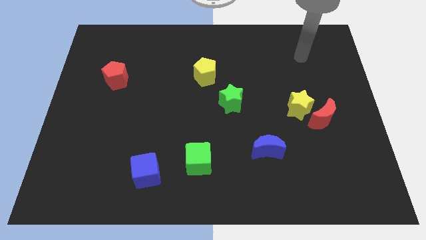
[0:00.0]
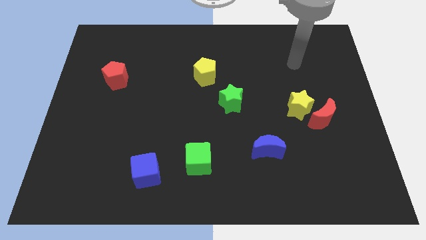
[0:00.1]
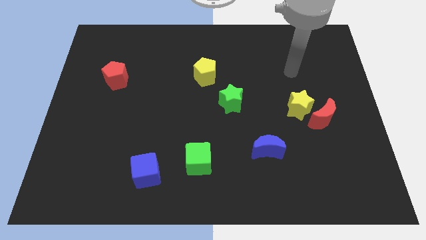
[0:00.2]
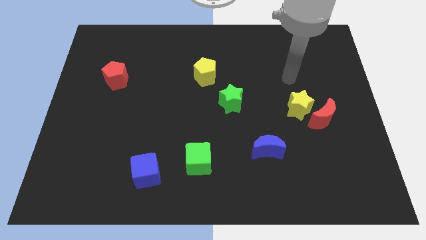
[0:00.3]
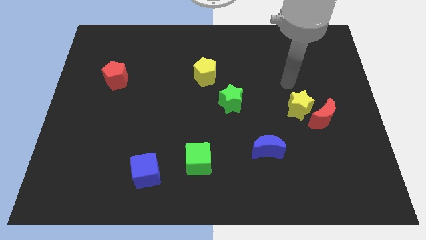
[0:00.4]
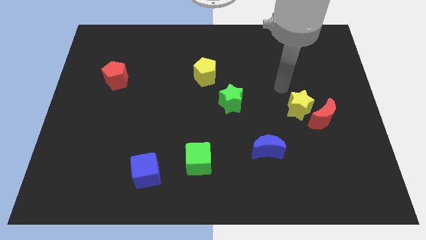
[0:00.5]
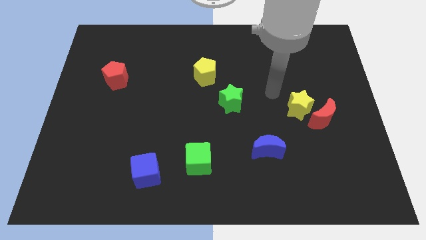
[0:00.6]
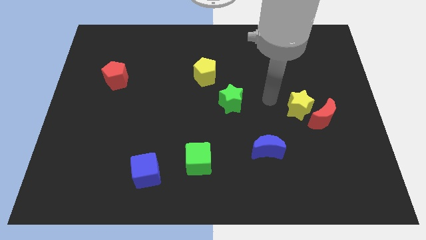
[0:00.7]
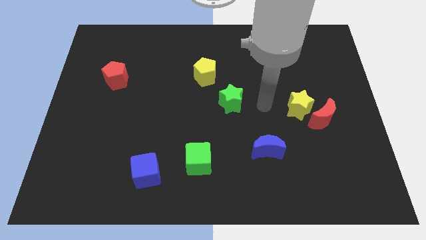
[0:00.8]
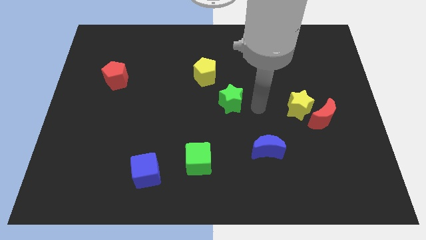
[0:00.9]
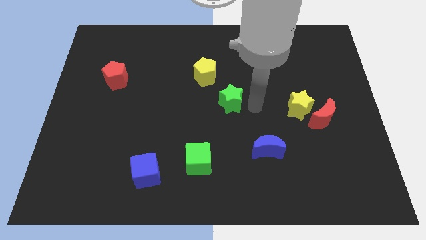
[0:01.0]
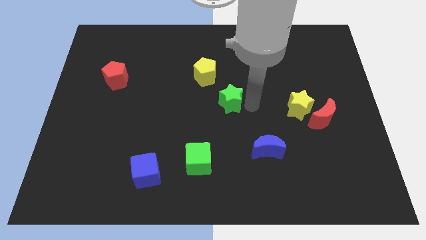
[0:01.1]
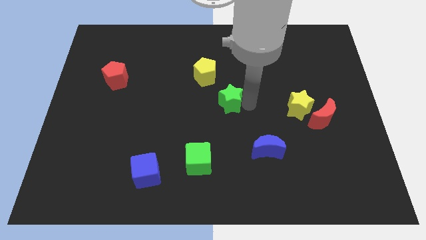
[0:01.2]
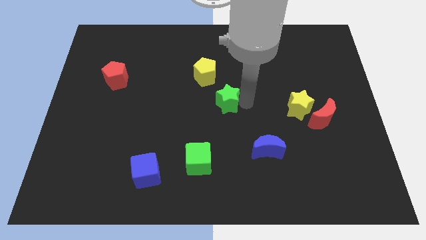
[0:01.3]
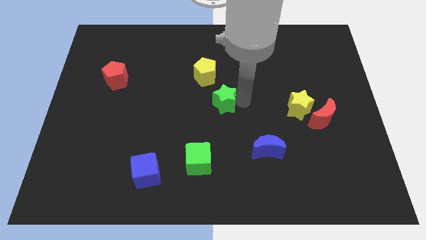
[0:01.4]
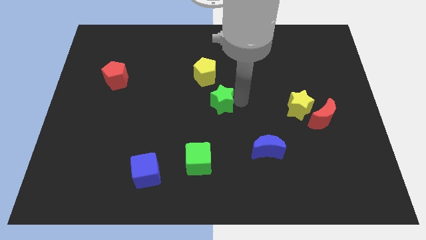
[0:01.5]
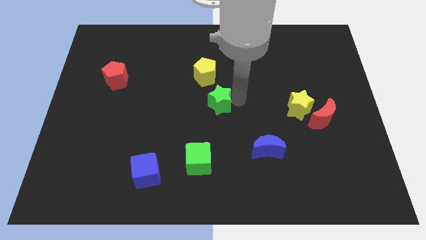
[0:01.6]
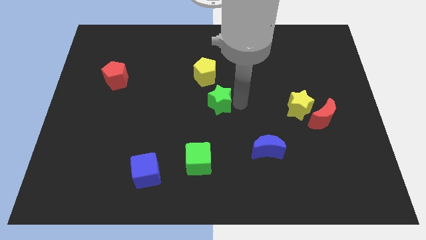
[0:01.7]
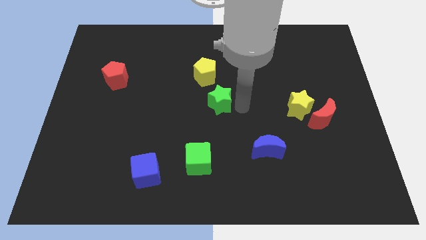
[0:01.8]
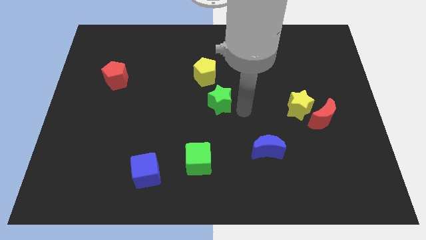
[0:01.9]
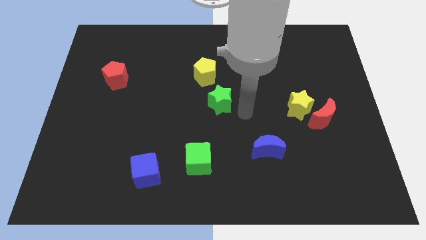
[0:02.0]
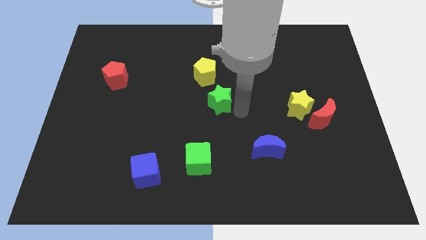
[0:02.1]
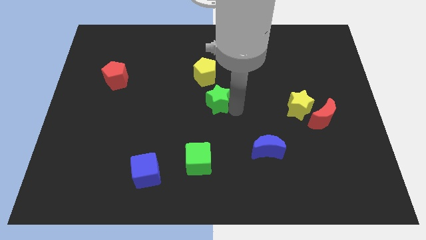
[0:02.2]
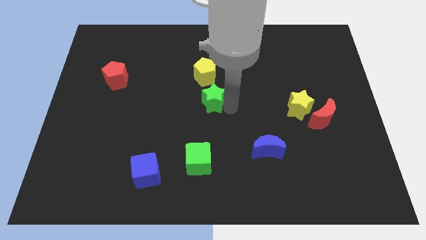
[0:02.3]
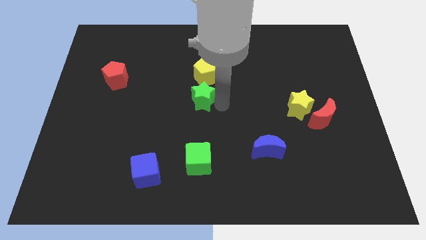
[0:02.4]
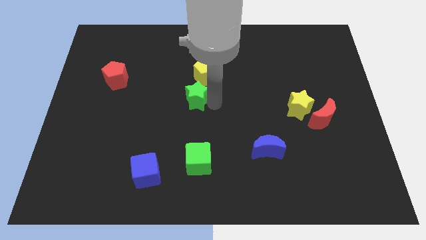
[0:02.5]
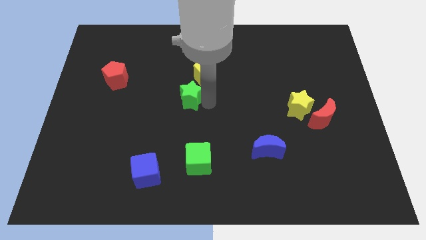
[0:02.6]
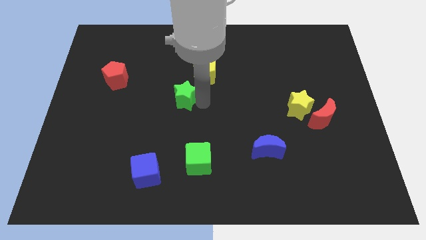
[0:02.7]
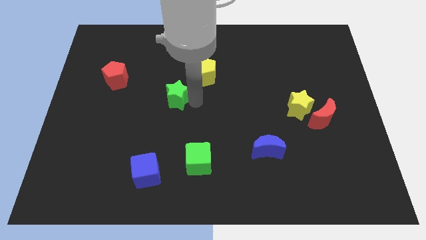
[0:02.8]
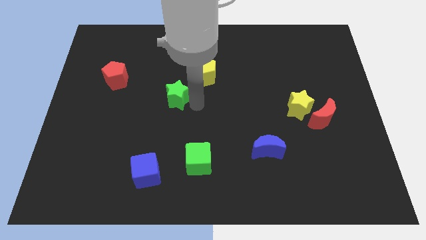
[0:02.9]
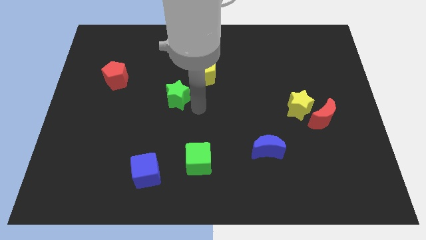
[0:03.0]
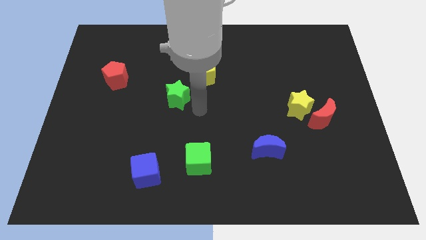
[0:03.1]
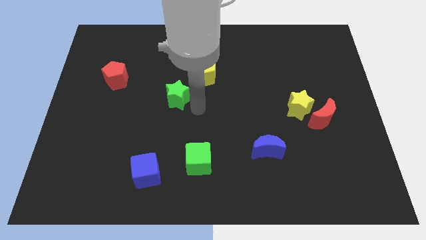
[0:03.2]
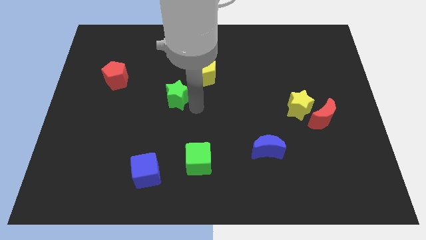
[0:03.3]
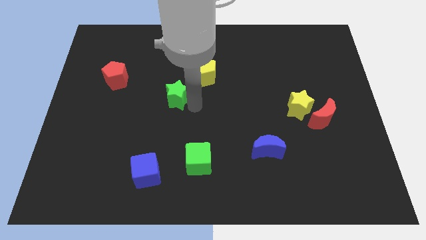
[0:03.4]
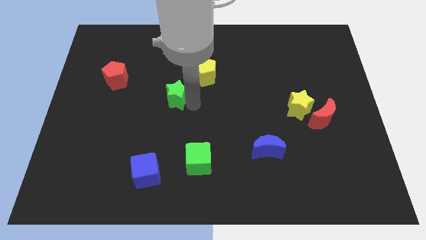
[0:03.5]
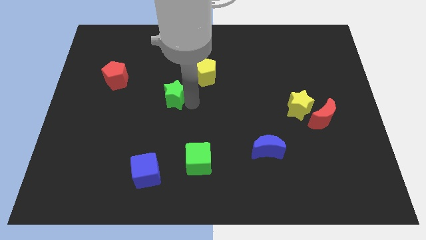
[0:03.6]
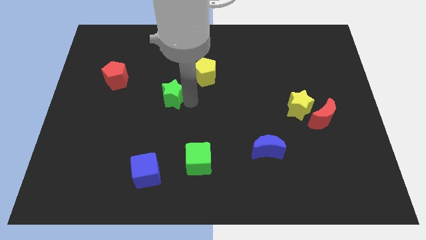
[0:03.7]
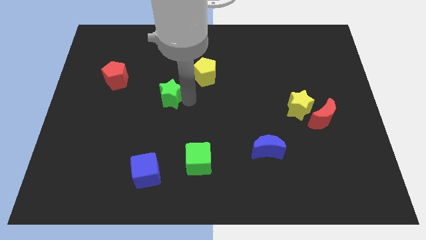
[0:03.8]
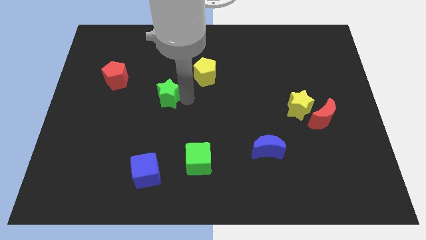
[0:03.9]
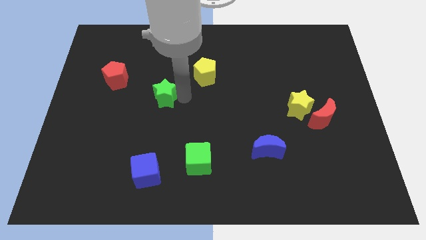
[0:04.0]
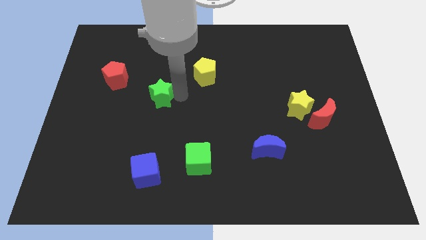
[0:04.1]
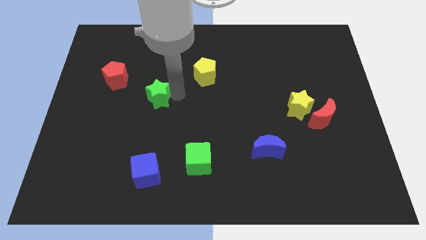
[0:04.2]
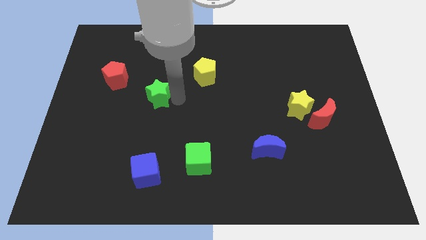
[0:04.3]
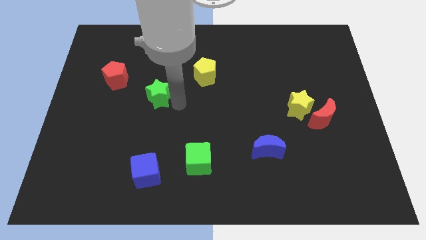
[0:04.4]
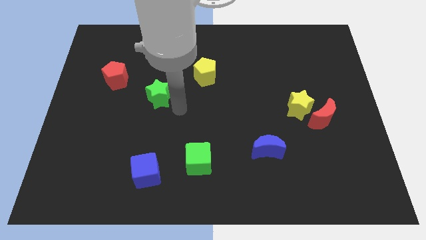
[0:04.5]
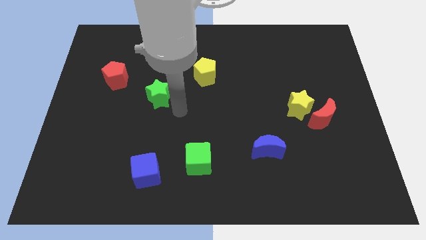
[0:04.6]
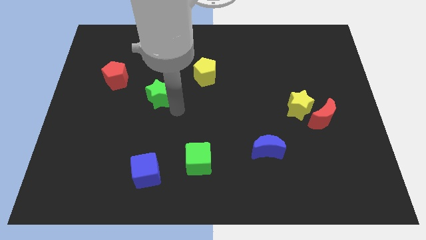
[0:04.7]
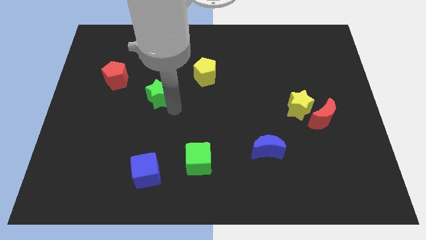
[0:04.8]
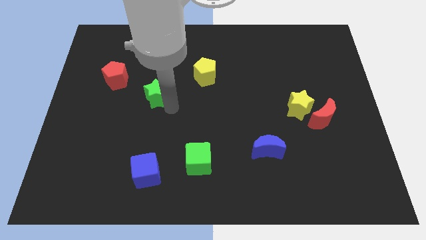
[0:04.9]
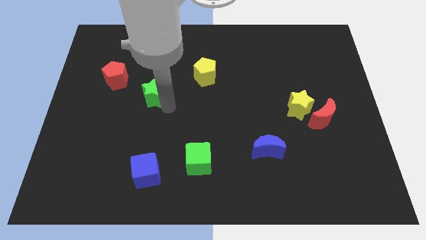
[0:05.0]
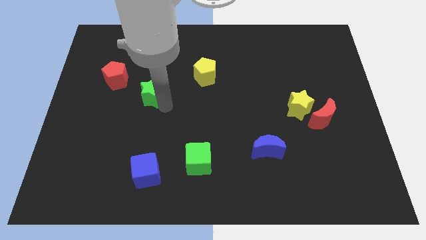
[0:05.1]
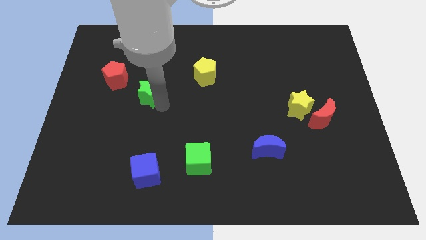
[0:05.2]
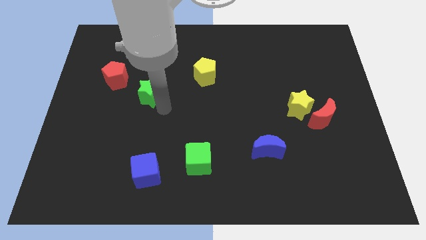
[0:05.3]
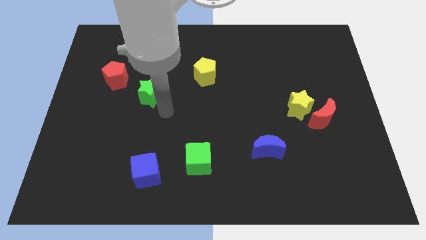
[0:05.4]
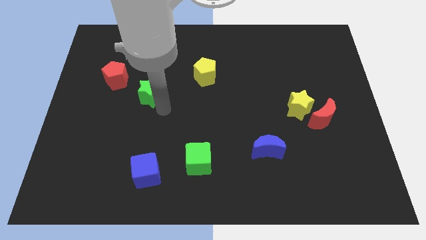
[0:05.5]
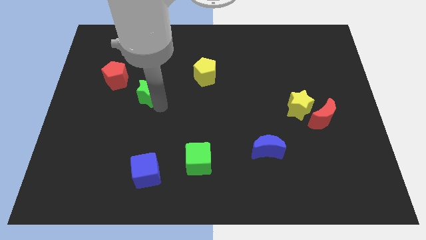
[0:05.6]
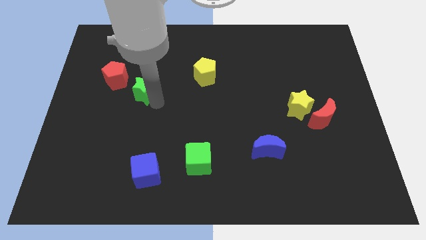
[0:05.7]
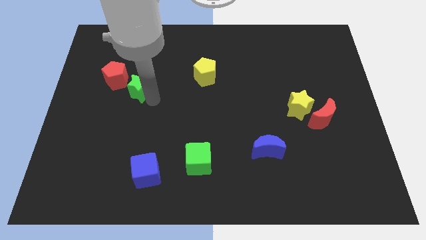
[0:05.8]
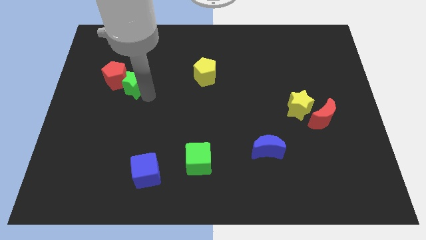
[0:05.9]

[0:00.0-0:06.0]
put the green star towards the red pentagon
